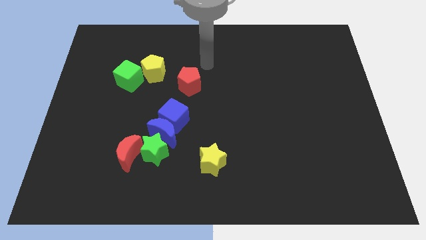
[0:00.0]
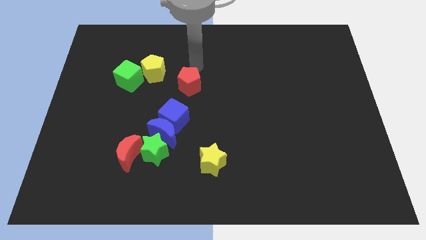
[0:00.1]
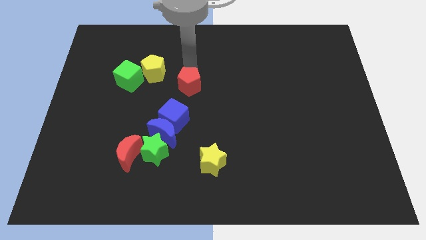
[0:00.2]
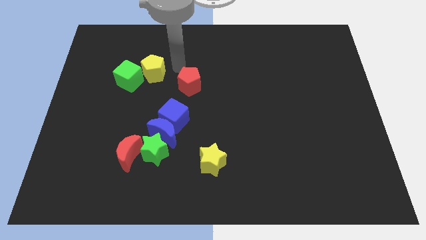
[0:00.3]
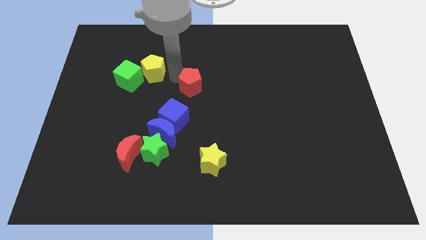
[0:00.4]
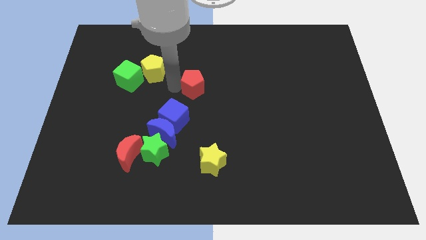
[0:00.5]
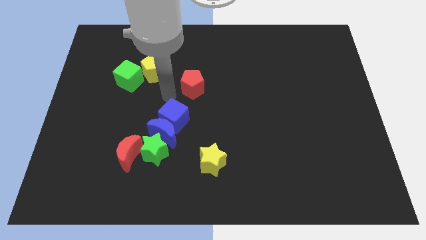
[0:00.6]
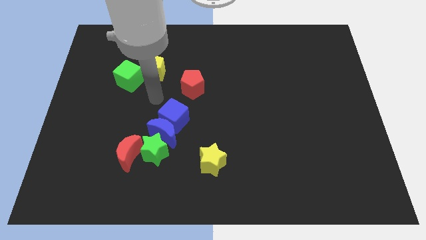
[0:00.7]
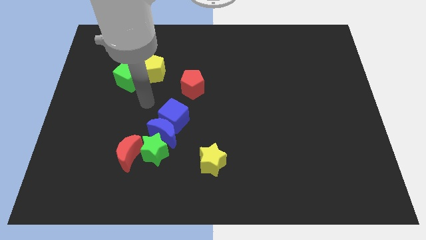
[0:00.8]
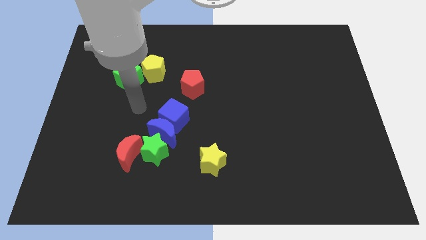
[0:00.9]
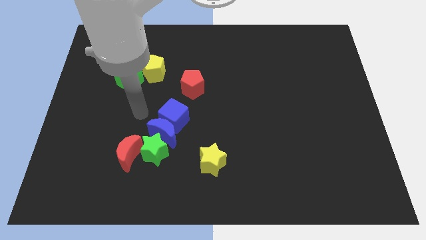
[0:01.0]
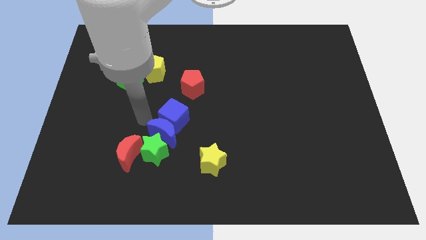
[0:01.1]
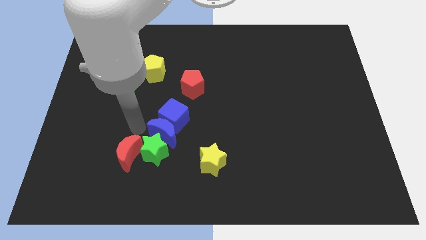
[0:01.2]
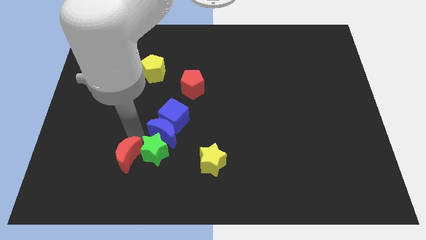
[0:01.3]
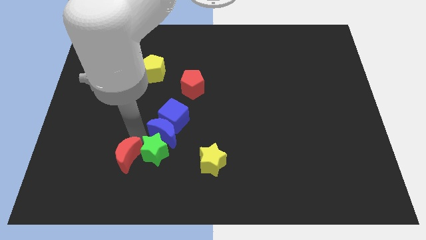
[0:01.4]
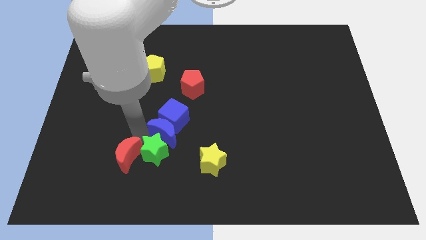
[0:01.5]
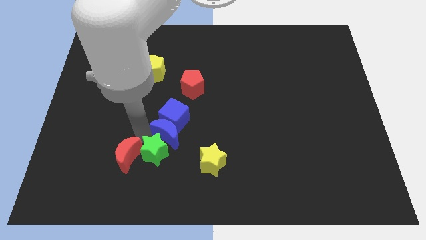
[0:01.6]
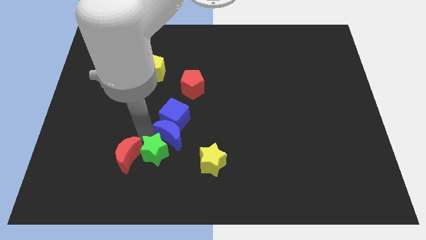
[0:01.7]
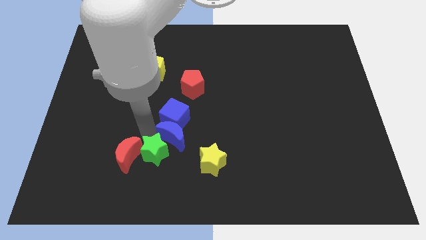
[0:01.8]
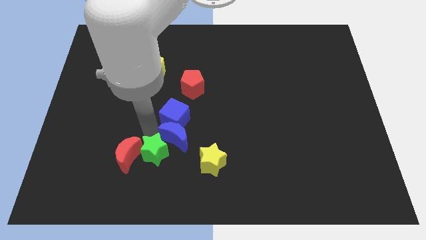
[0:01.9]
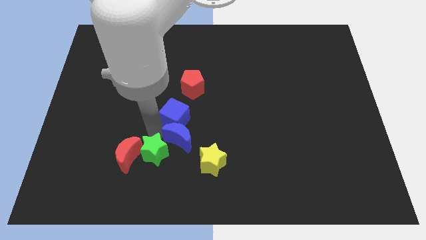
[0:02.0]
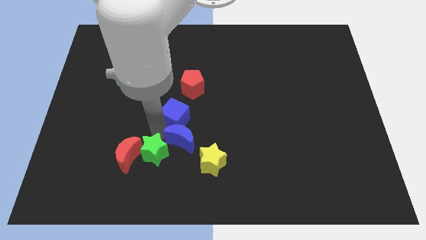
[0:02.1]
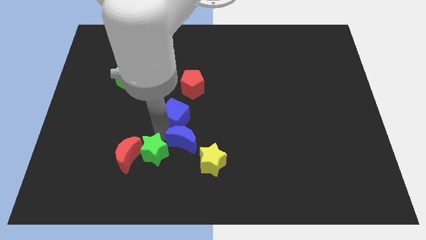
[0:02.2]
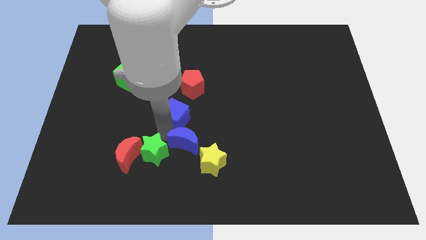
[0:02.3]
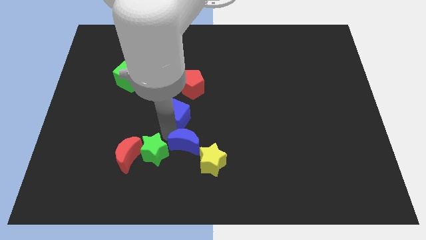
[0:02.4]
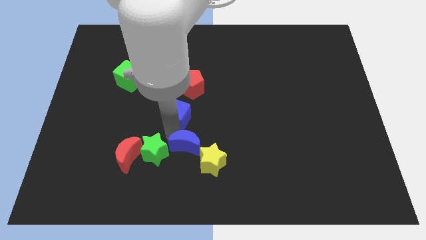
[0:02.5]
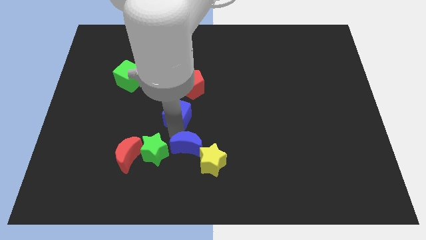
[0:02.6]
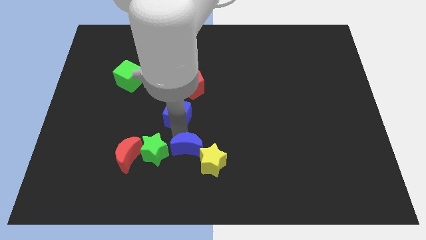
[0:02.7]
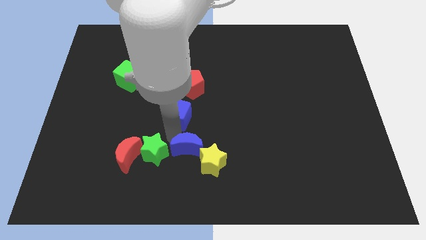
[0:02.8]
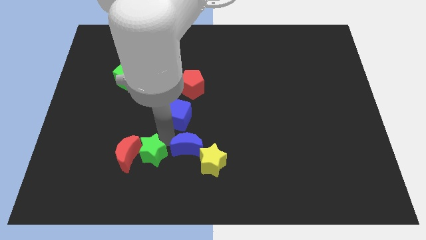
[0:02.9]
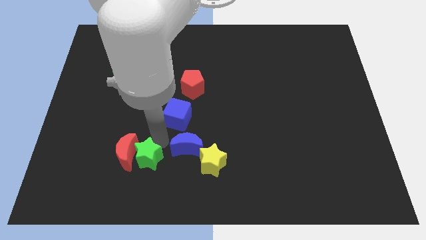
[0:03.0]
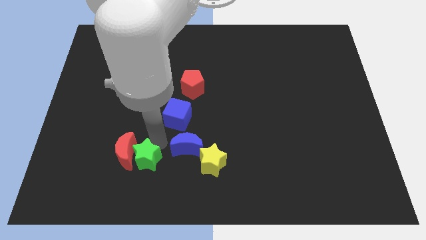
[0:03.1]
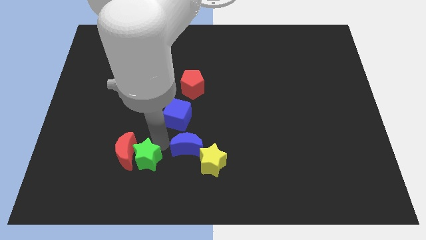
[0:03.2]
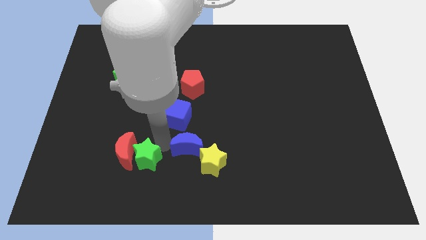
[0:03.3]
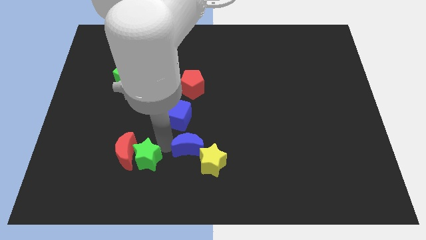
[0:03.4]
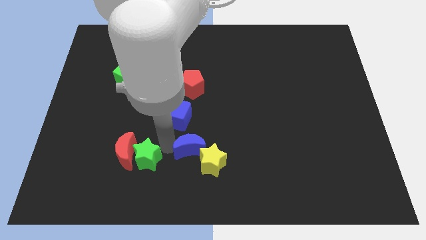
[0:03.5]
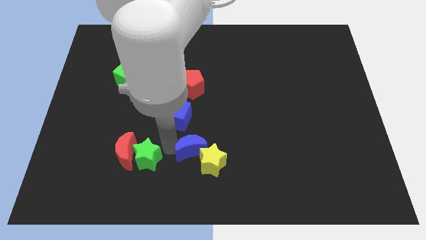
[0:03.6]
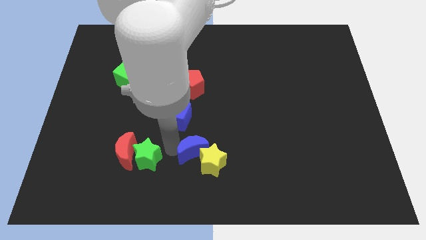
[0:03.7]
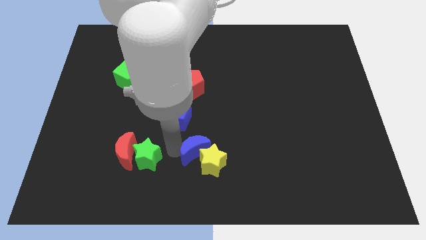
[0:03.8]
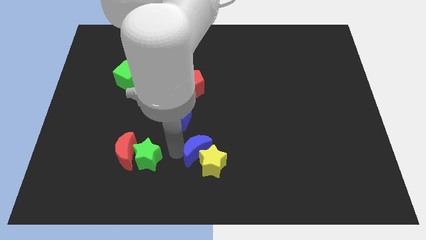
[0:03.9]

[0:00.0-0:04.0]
move the blue moon away from the clump

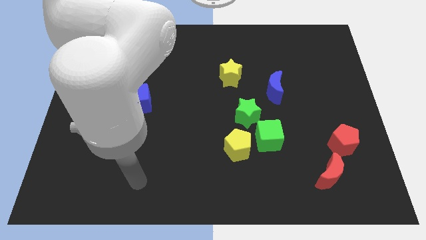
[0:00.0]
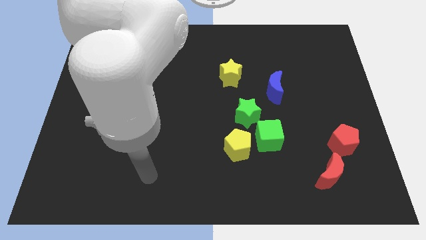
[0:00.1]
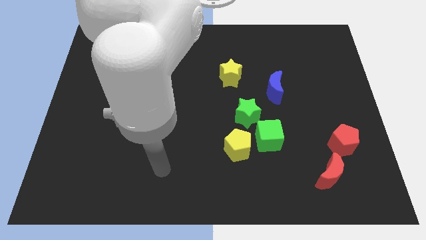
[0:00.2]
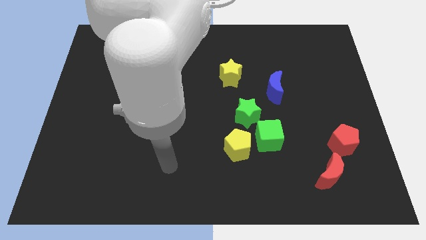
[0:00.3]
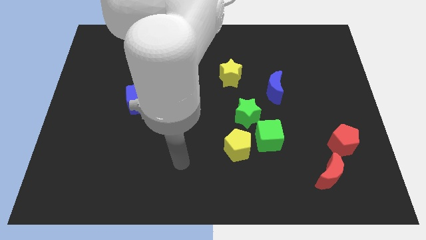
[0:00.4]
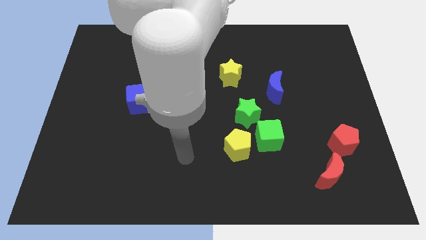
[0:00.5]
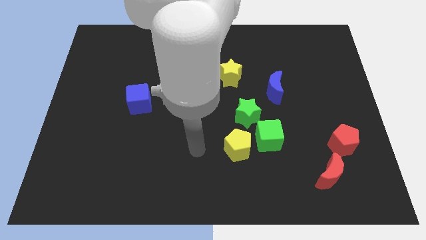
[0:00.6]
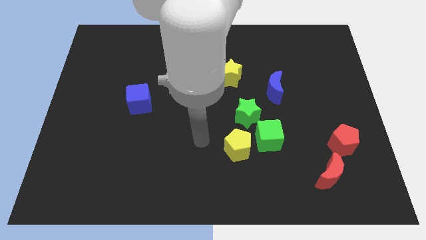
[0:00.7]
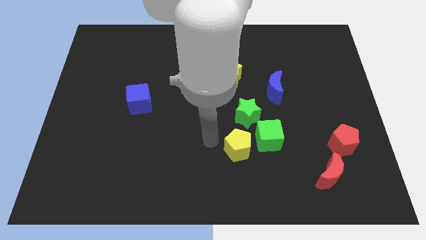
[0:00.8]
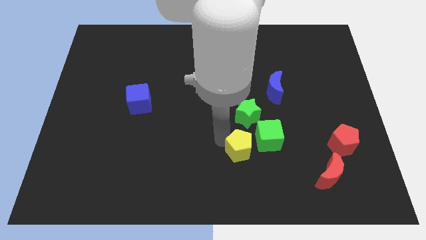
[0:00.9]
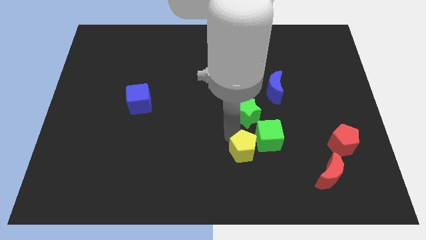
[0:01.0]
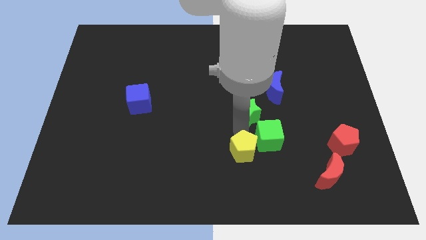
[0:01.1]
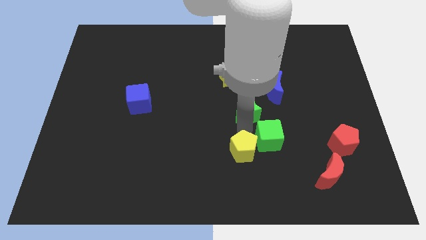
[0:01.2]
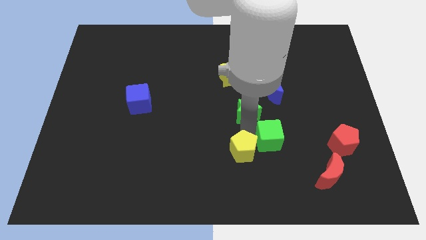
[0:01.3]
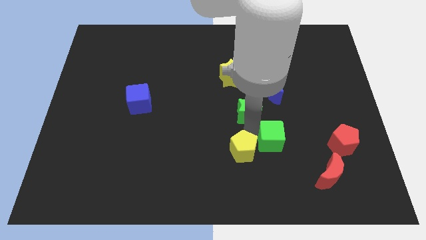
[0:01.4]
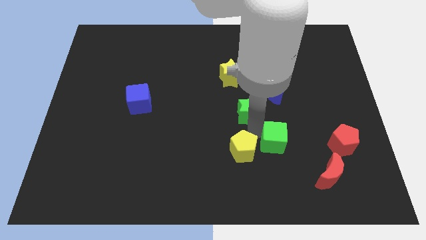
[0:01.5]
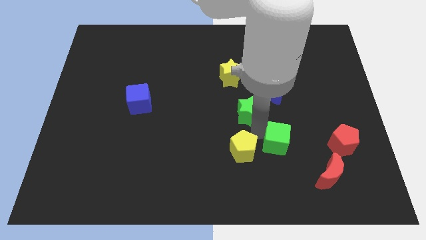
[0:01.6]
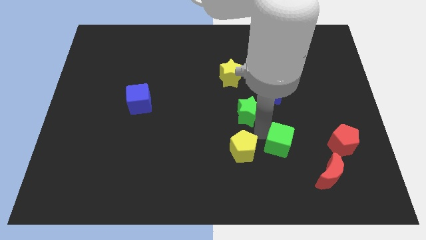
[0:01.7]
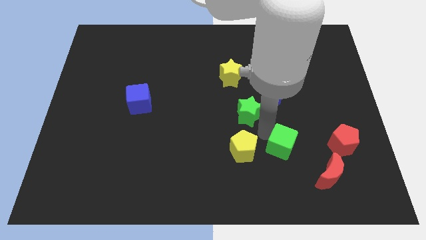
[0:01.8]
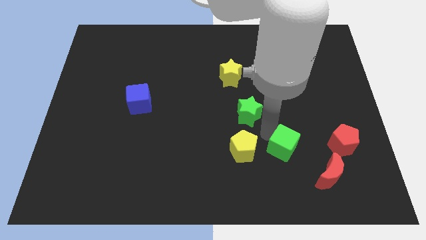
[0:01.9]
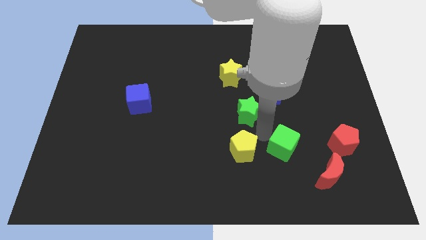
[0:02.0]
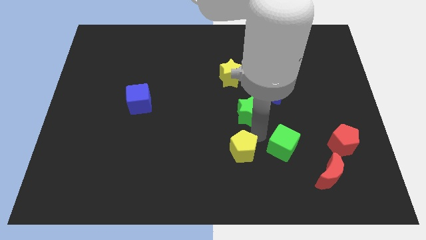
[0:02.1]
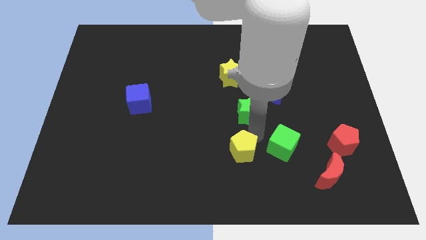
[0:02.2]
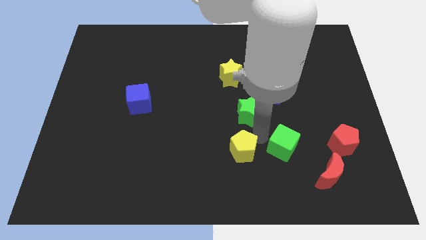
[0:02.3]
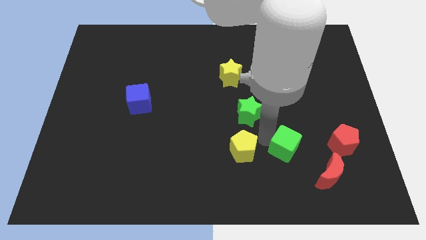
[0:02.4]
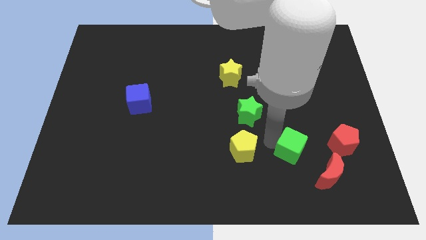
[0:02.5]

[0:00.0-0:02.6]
move the green cube away from the yellow pentagon and green star

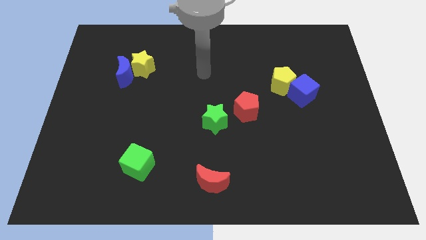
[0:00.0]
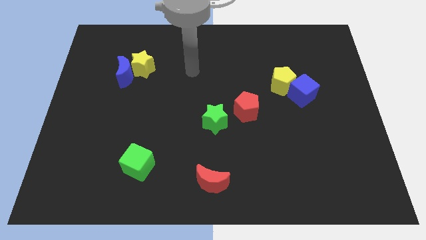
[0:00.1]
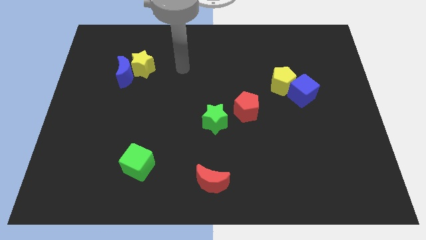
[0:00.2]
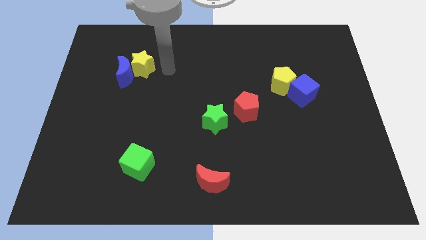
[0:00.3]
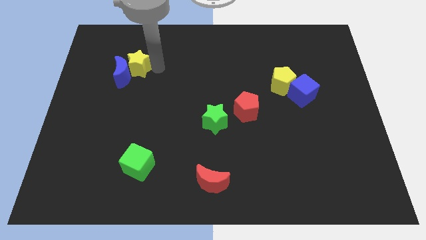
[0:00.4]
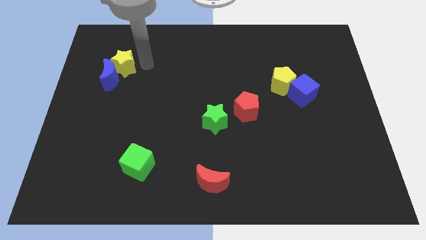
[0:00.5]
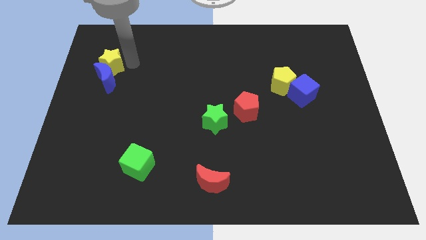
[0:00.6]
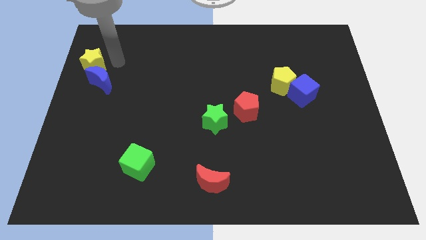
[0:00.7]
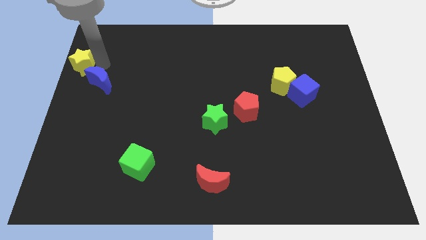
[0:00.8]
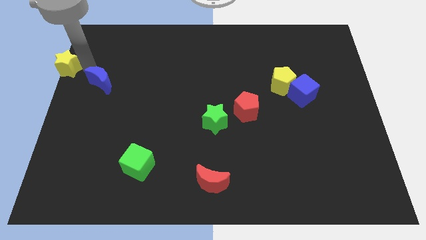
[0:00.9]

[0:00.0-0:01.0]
separate the blue moon from the yellow star

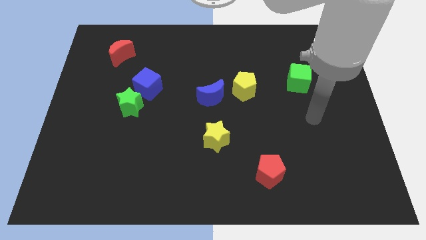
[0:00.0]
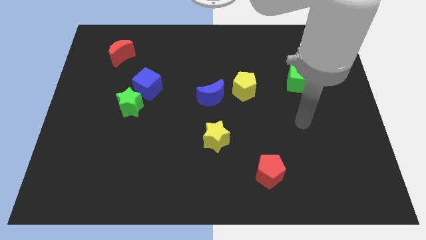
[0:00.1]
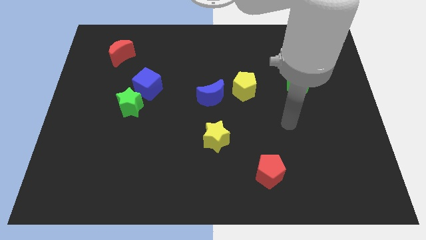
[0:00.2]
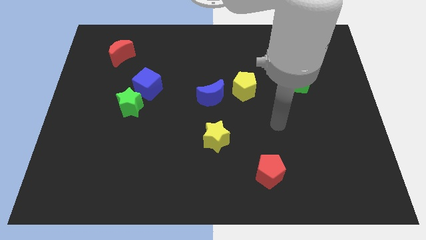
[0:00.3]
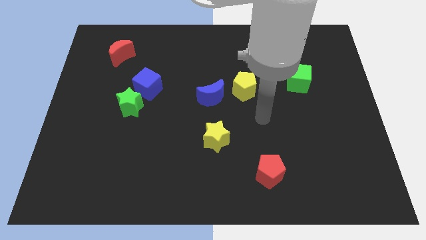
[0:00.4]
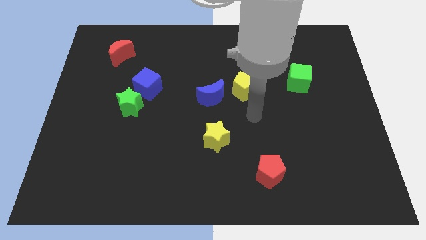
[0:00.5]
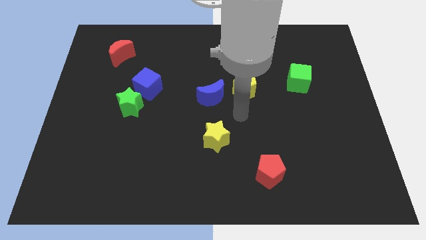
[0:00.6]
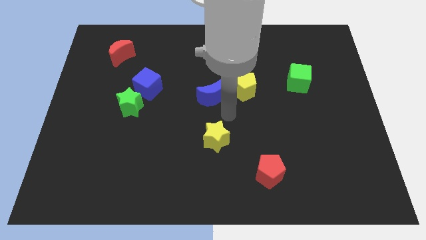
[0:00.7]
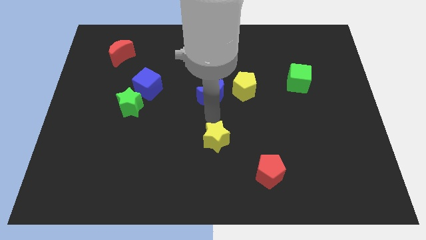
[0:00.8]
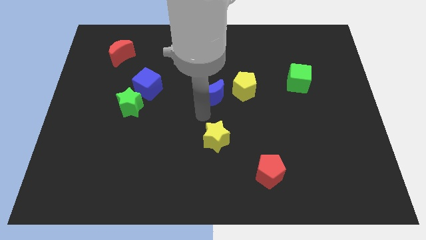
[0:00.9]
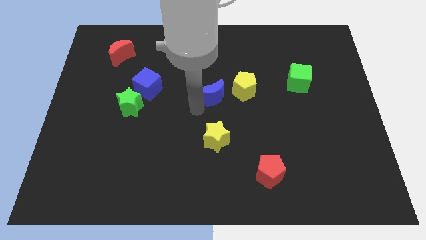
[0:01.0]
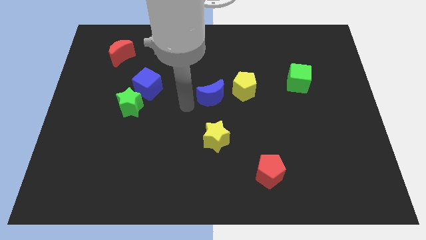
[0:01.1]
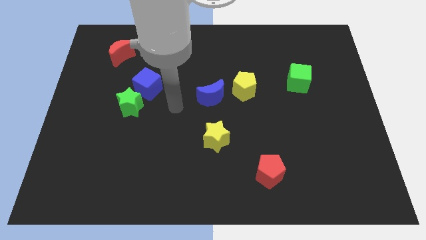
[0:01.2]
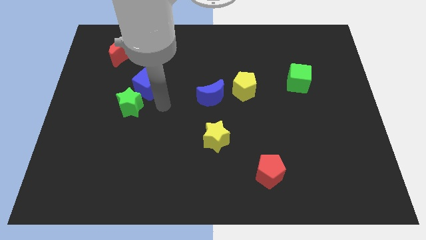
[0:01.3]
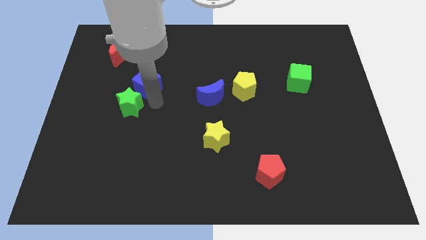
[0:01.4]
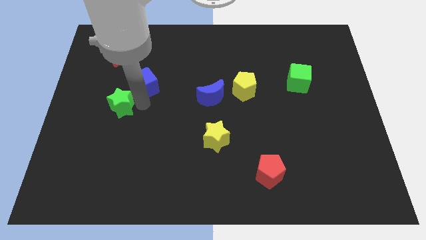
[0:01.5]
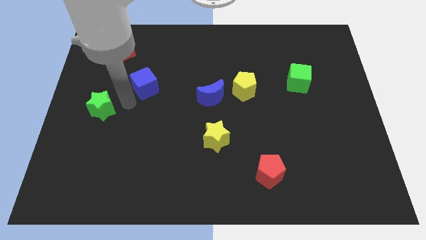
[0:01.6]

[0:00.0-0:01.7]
separate the blue cube from the green star

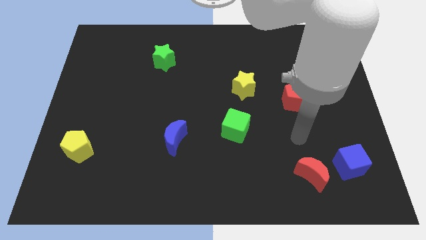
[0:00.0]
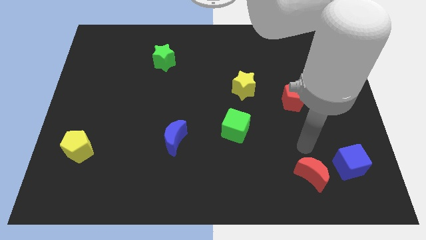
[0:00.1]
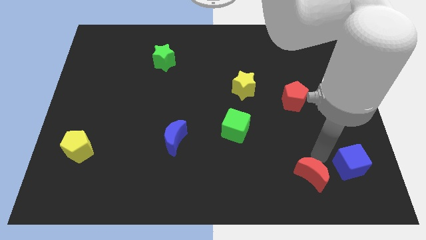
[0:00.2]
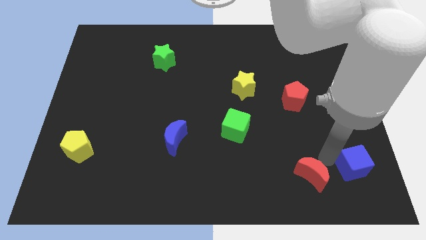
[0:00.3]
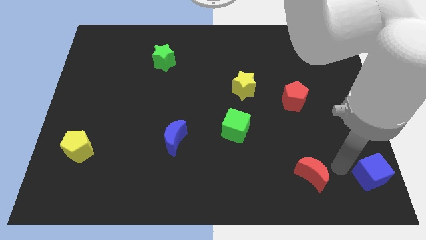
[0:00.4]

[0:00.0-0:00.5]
separate the red moon from the blue cube
